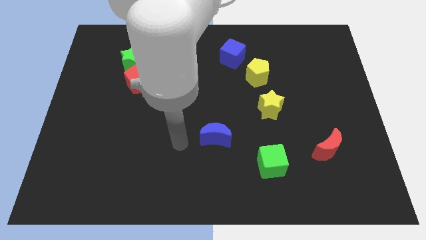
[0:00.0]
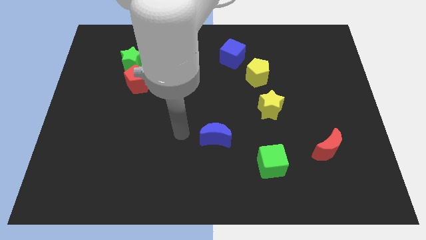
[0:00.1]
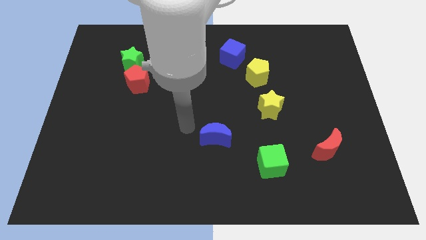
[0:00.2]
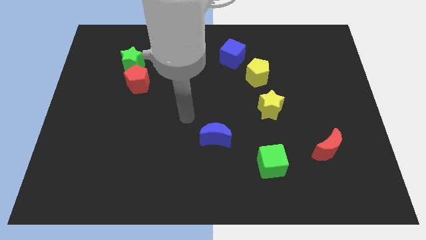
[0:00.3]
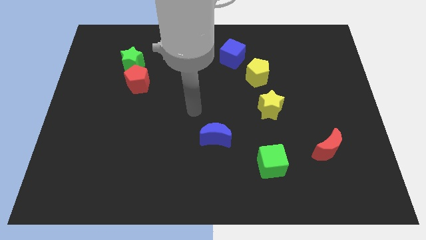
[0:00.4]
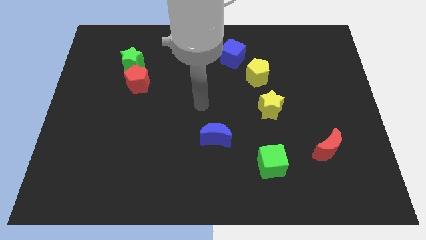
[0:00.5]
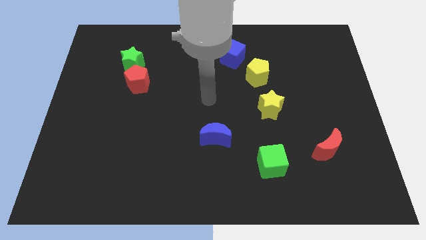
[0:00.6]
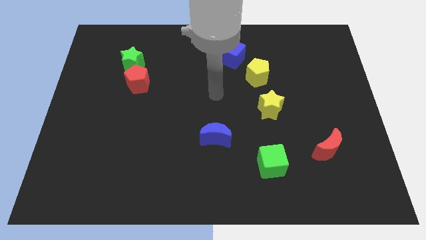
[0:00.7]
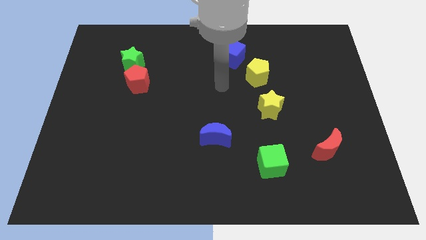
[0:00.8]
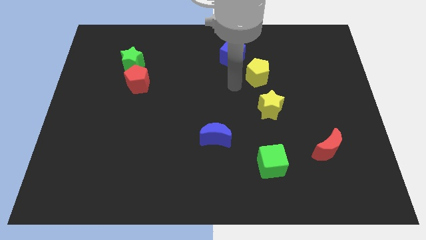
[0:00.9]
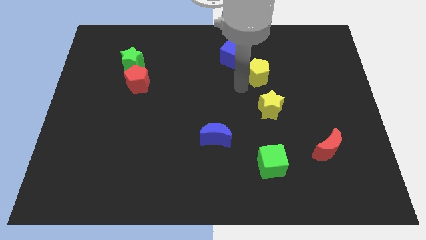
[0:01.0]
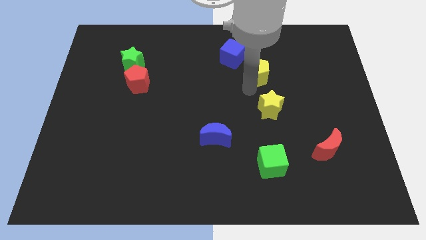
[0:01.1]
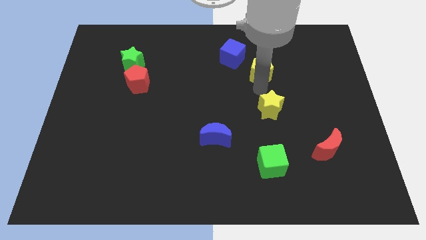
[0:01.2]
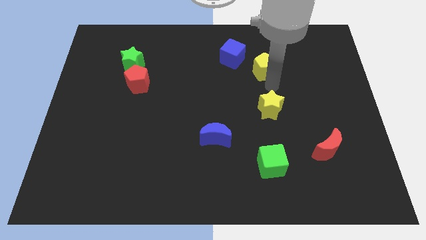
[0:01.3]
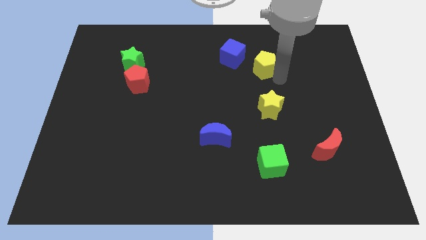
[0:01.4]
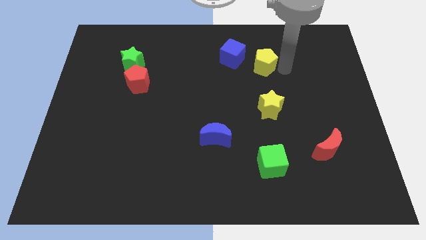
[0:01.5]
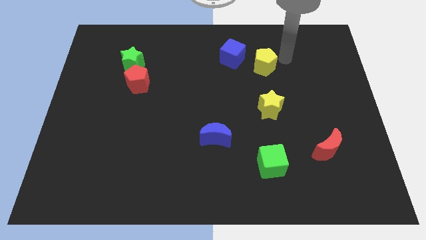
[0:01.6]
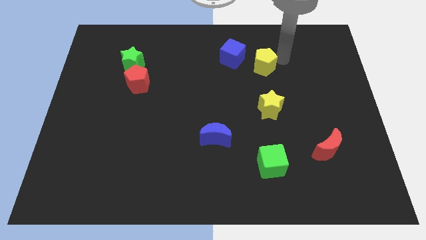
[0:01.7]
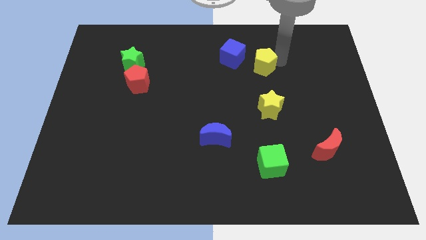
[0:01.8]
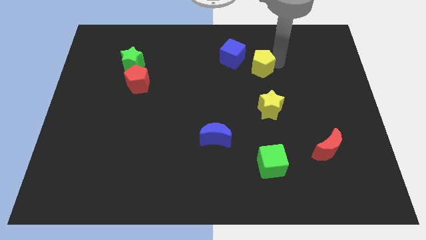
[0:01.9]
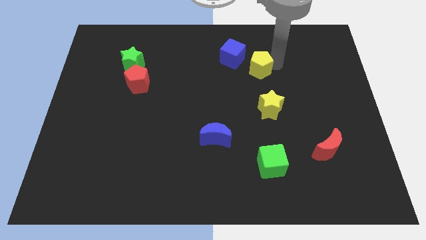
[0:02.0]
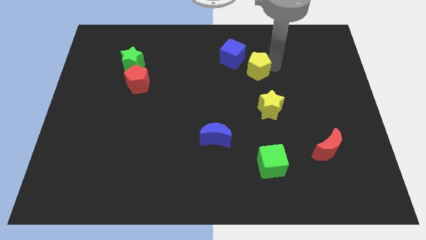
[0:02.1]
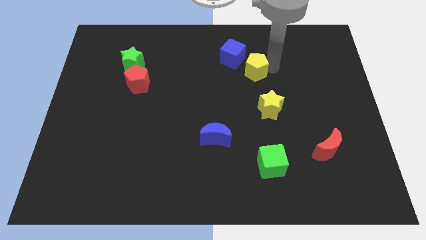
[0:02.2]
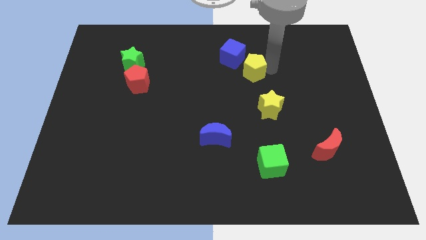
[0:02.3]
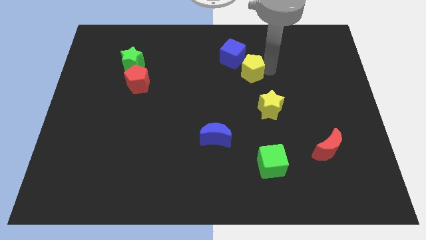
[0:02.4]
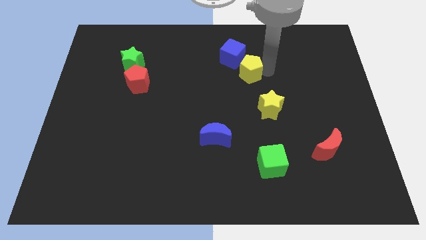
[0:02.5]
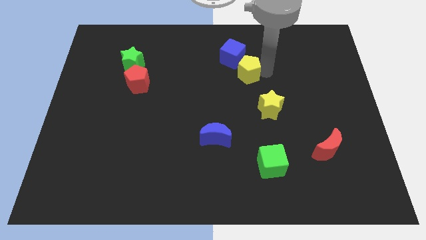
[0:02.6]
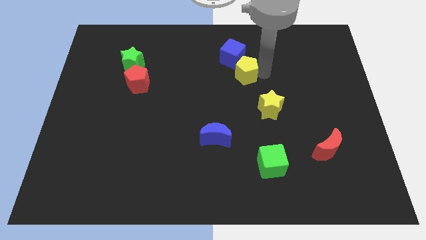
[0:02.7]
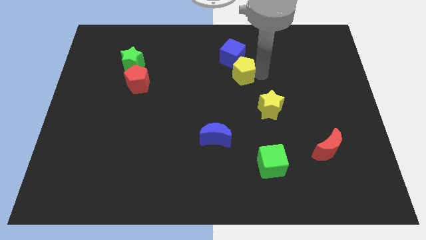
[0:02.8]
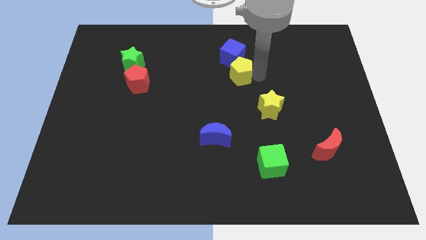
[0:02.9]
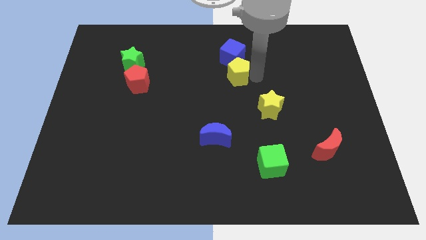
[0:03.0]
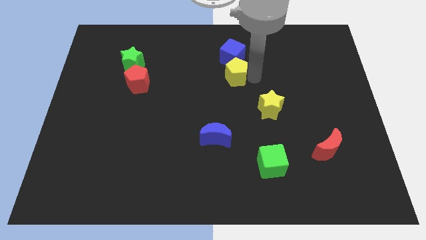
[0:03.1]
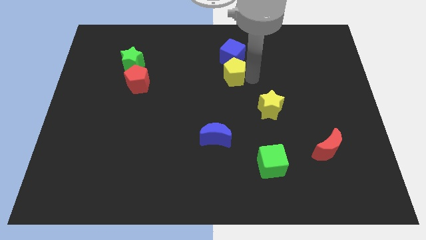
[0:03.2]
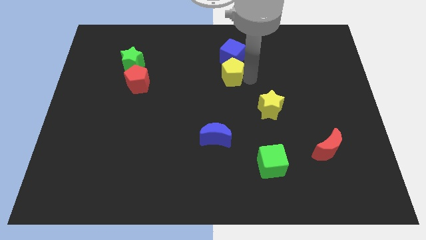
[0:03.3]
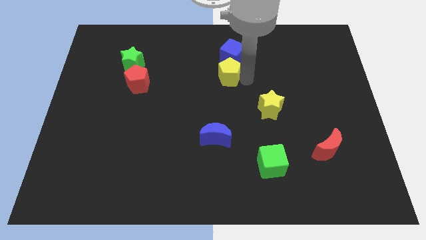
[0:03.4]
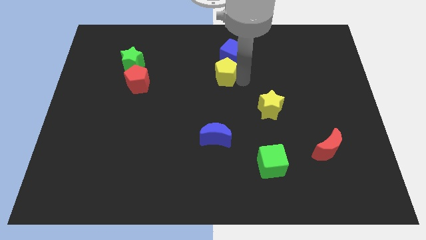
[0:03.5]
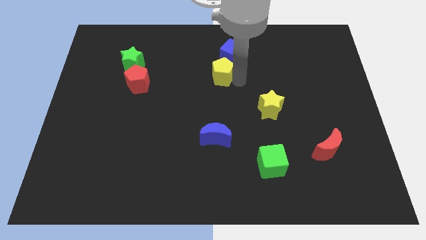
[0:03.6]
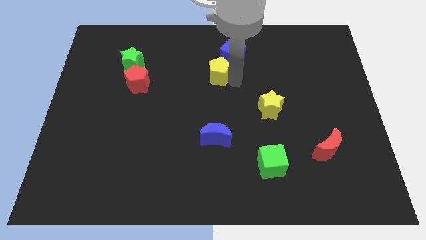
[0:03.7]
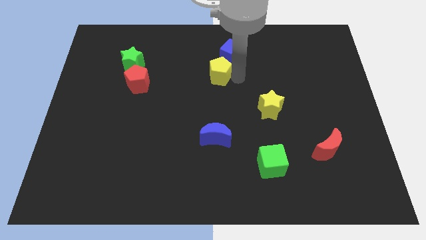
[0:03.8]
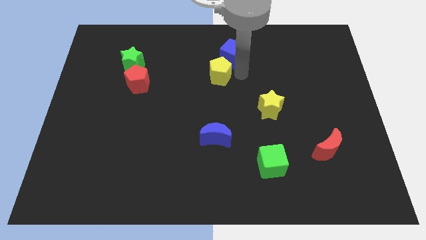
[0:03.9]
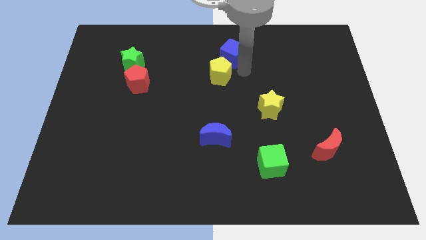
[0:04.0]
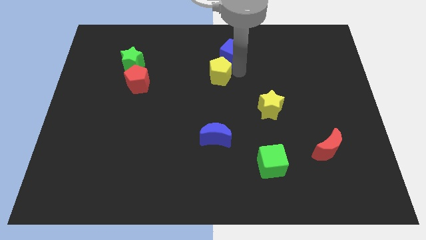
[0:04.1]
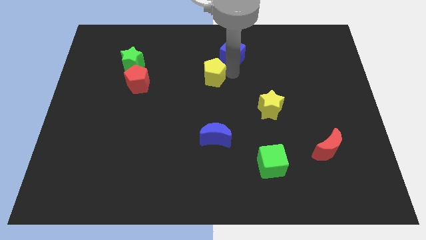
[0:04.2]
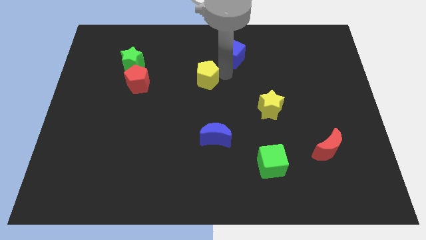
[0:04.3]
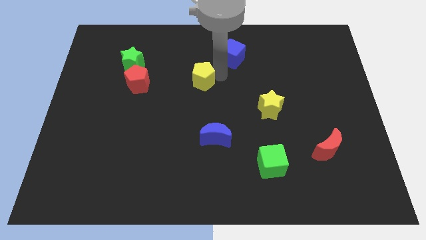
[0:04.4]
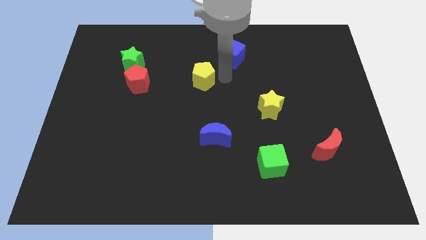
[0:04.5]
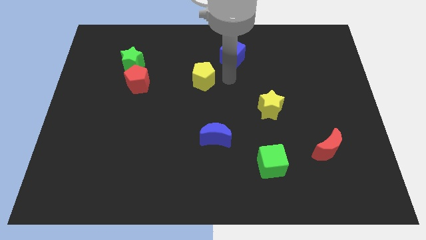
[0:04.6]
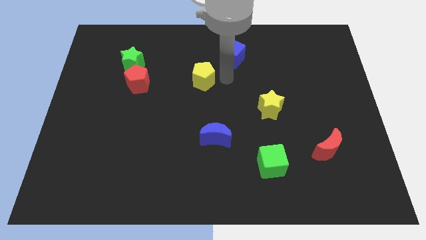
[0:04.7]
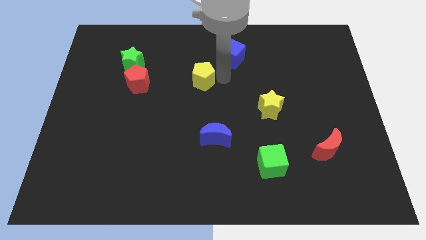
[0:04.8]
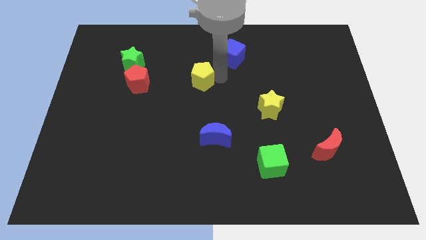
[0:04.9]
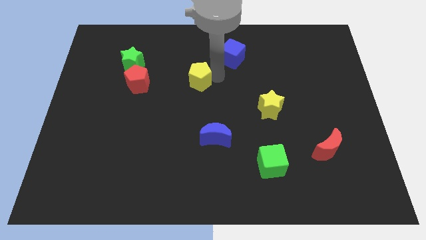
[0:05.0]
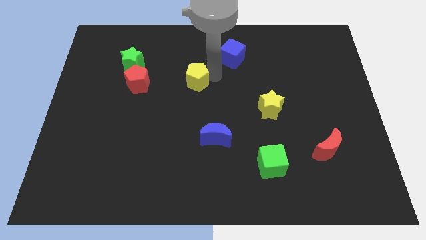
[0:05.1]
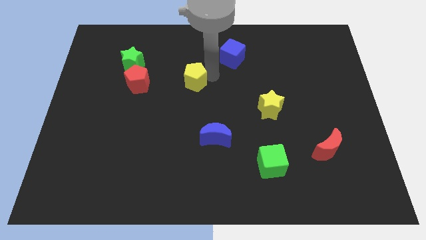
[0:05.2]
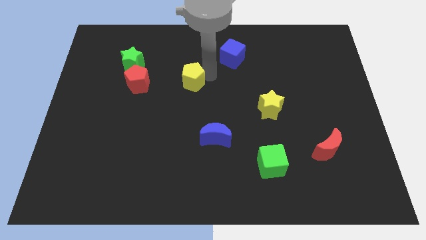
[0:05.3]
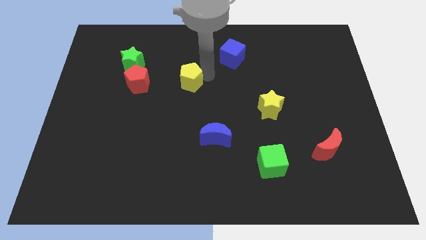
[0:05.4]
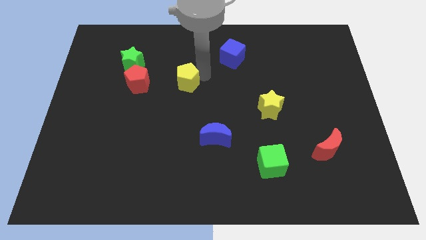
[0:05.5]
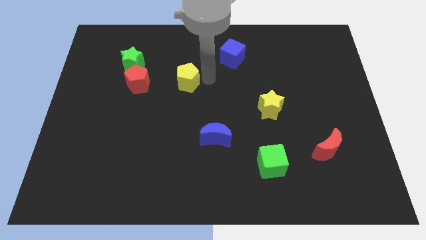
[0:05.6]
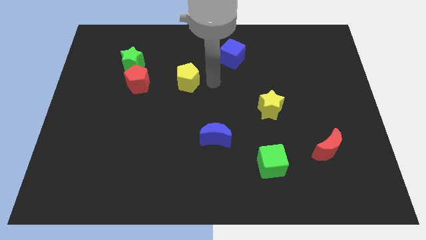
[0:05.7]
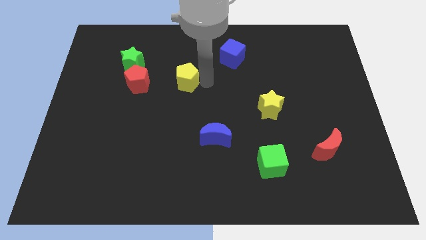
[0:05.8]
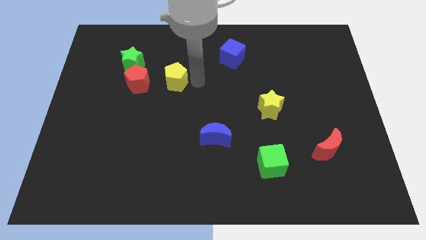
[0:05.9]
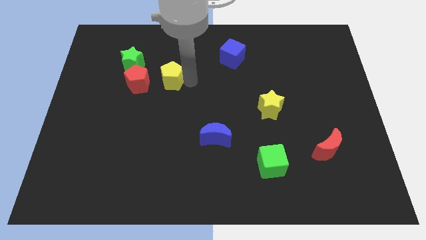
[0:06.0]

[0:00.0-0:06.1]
push the yellow pentagon to the bottom right of the green star

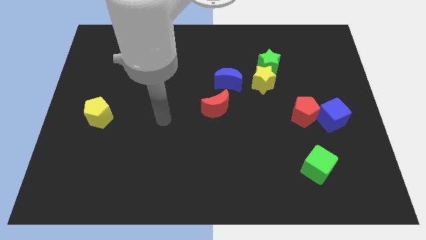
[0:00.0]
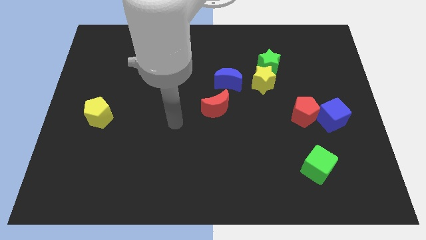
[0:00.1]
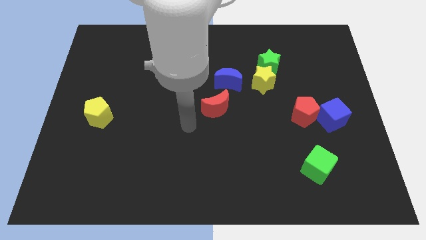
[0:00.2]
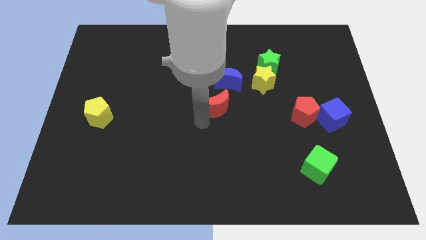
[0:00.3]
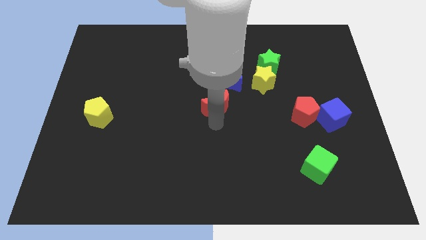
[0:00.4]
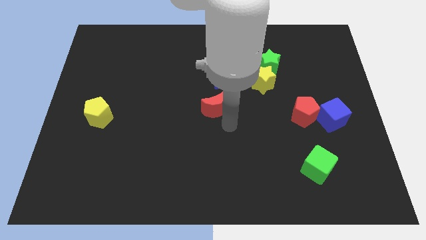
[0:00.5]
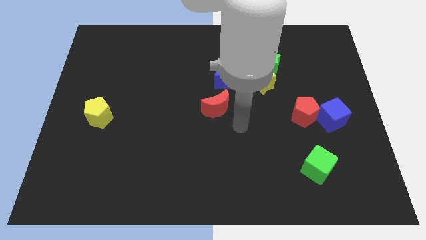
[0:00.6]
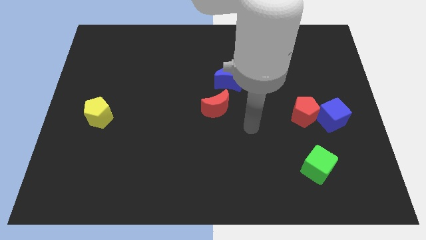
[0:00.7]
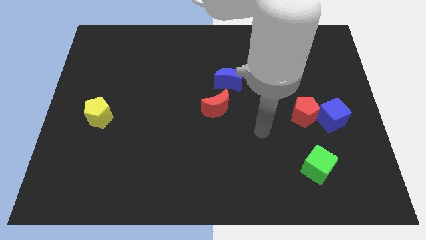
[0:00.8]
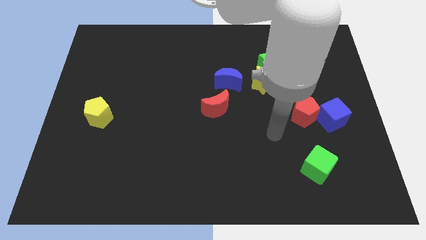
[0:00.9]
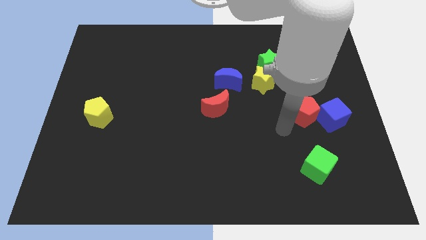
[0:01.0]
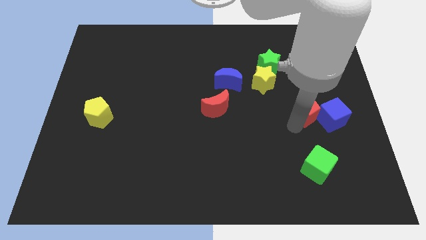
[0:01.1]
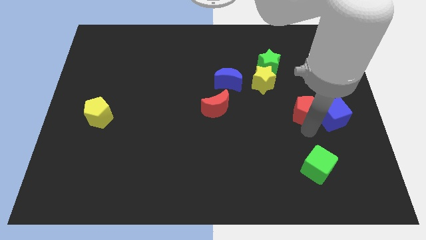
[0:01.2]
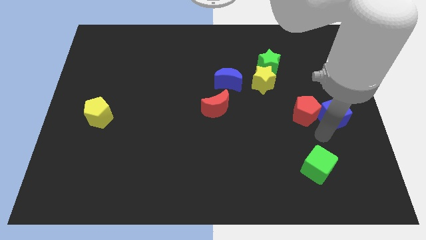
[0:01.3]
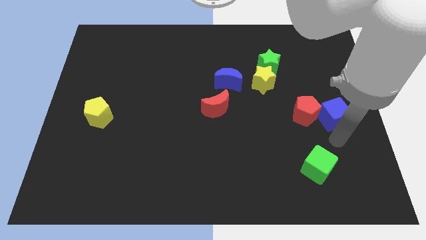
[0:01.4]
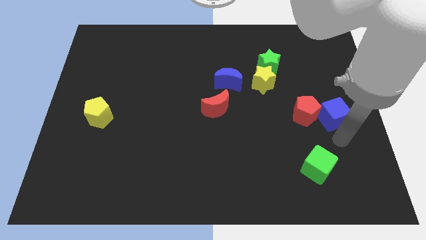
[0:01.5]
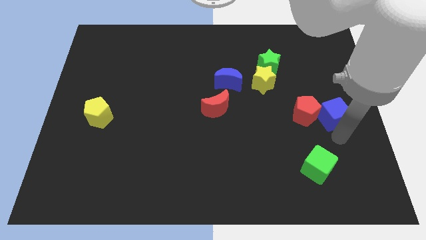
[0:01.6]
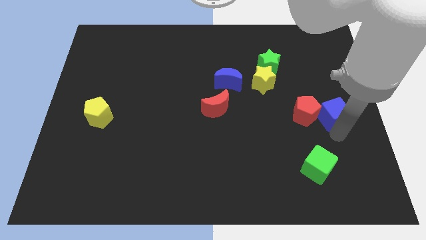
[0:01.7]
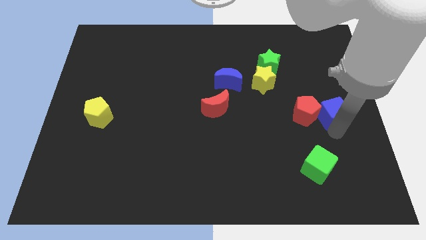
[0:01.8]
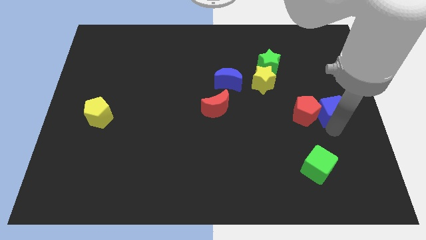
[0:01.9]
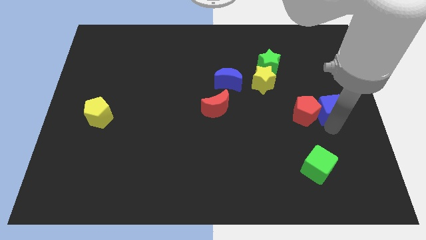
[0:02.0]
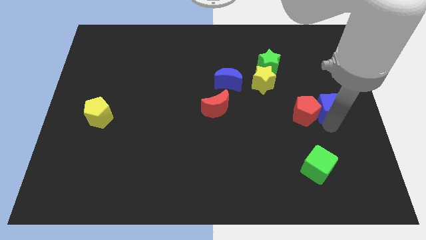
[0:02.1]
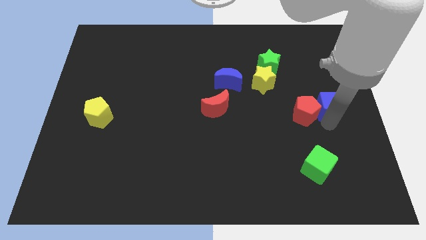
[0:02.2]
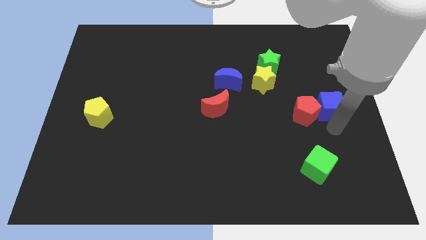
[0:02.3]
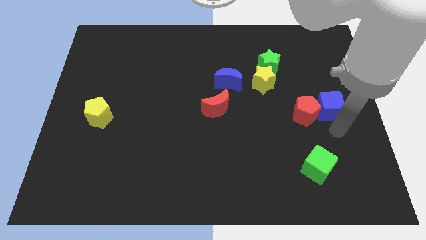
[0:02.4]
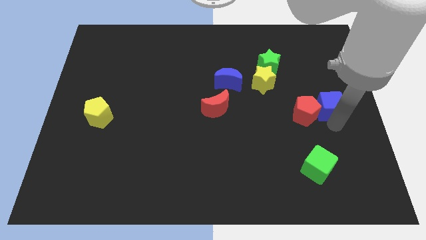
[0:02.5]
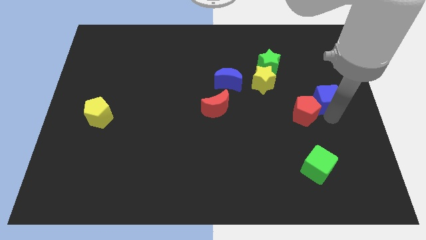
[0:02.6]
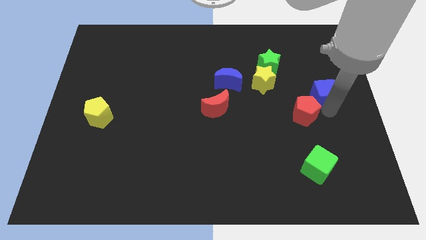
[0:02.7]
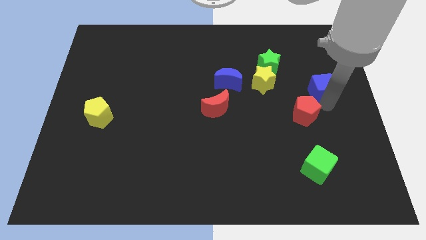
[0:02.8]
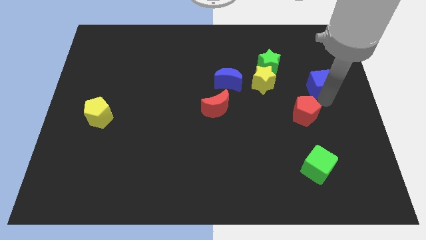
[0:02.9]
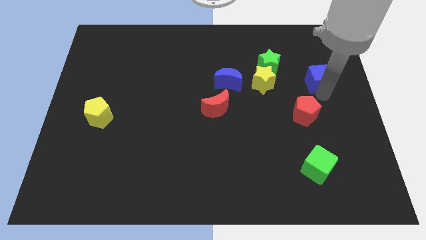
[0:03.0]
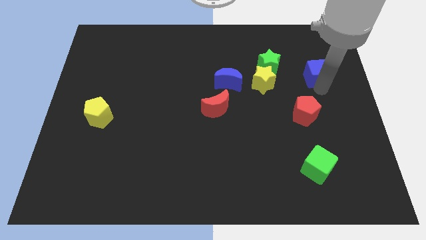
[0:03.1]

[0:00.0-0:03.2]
slide the blue cube to the right of the green star
